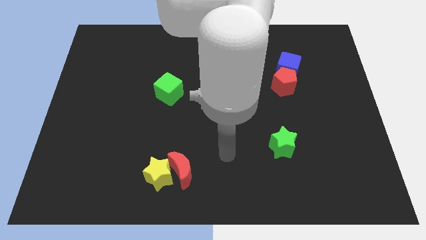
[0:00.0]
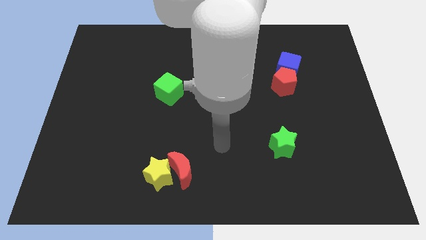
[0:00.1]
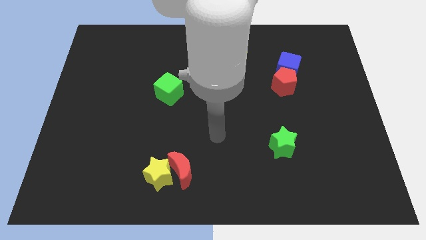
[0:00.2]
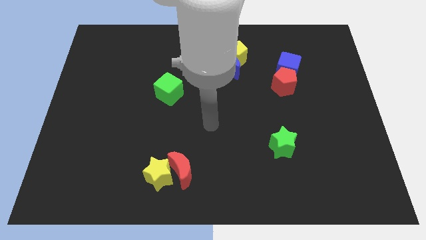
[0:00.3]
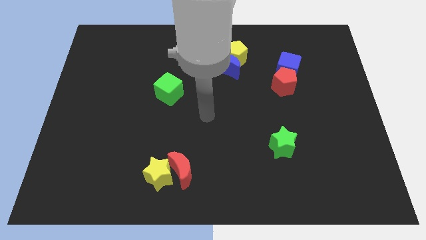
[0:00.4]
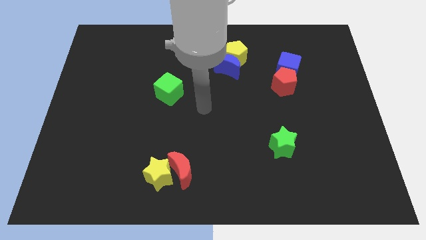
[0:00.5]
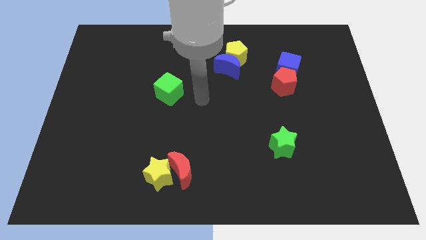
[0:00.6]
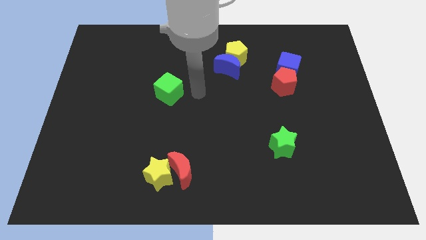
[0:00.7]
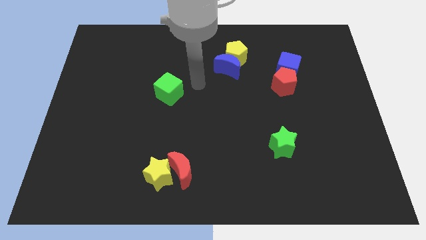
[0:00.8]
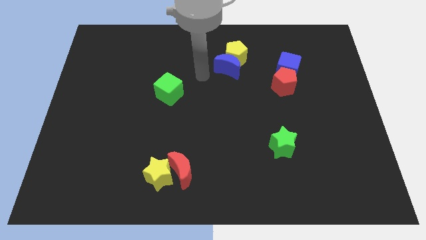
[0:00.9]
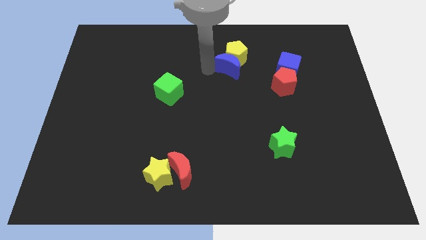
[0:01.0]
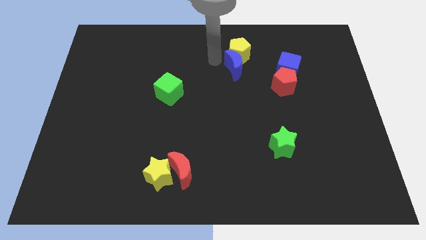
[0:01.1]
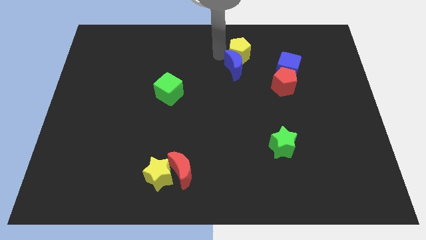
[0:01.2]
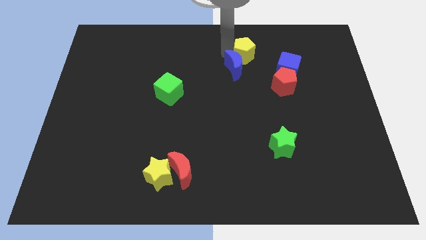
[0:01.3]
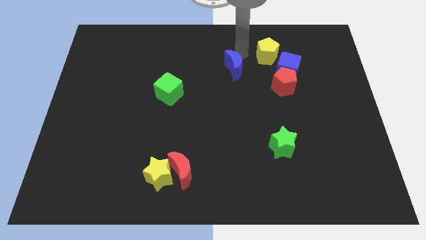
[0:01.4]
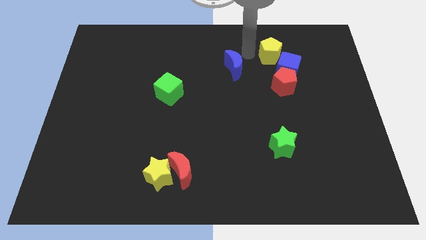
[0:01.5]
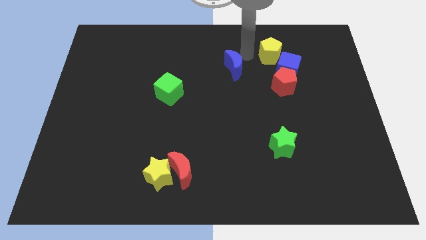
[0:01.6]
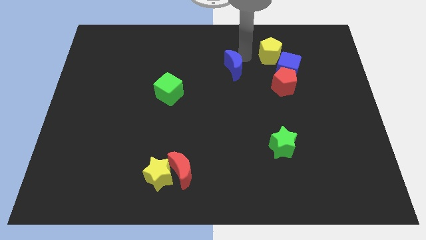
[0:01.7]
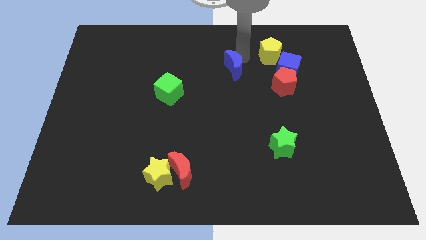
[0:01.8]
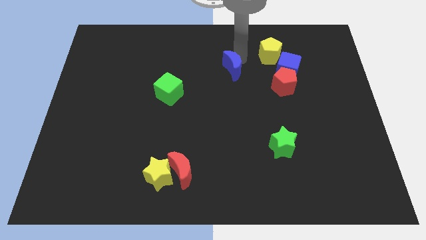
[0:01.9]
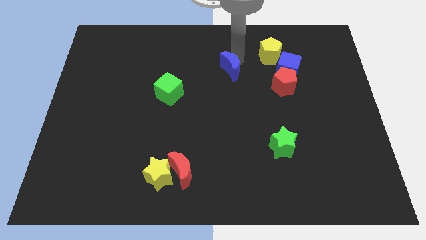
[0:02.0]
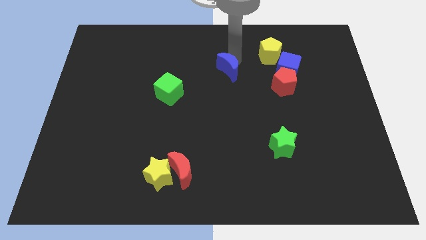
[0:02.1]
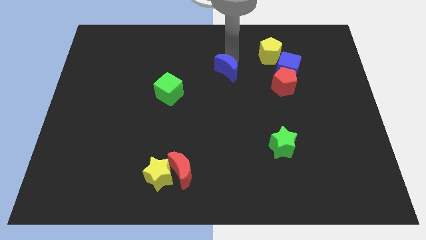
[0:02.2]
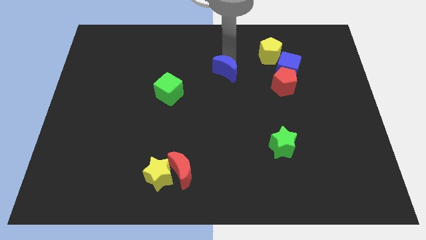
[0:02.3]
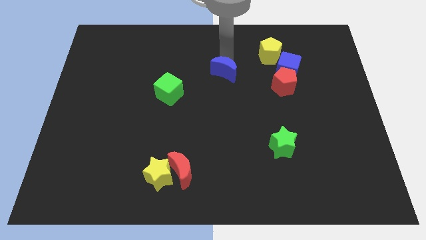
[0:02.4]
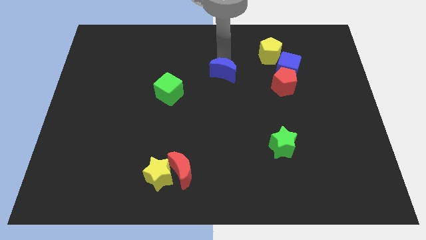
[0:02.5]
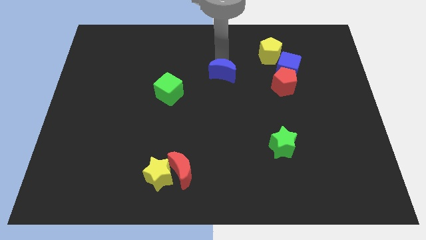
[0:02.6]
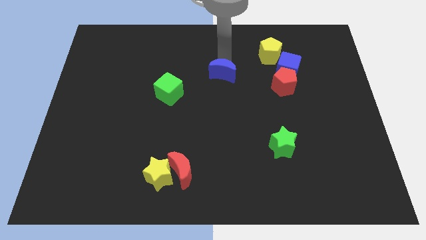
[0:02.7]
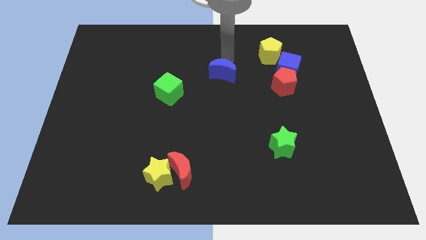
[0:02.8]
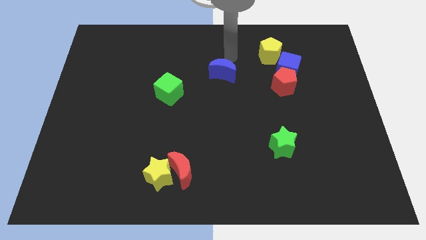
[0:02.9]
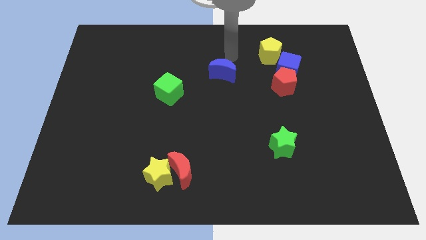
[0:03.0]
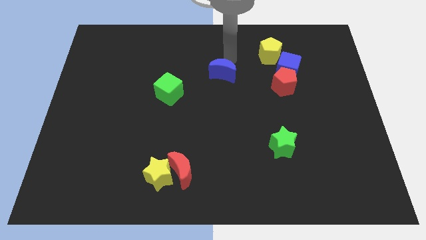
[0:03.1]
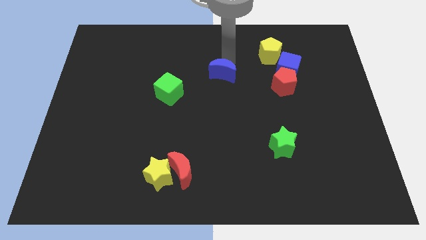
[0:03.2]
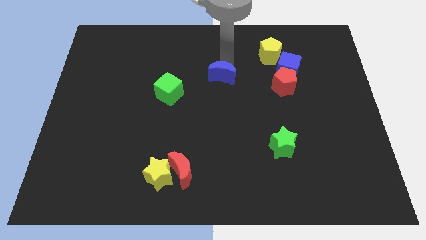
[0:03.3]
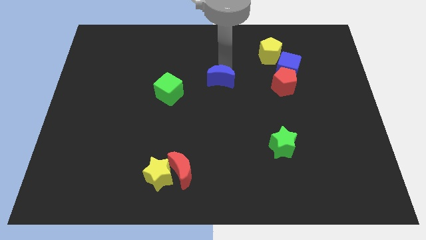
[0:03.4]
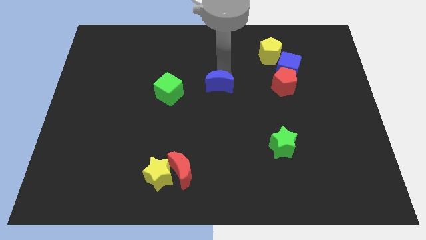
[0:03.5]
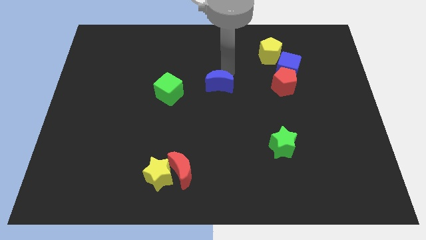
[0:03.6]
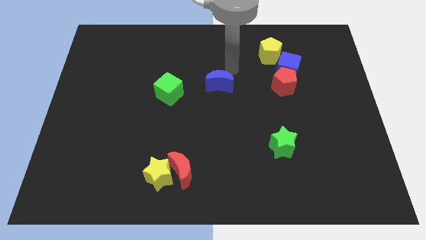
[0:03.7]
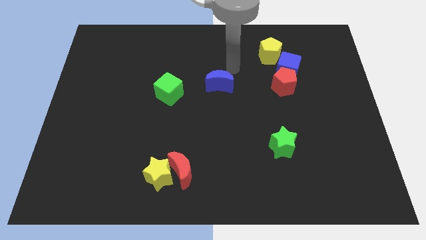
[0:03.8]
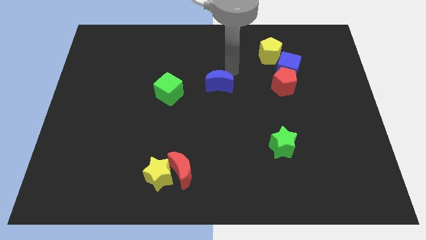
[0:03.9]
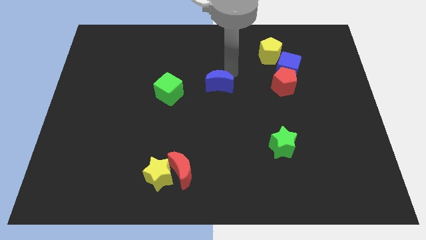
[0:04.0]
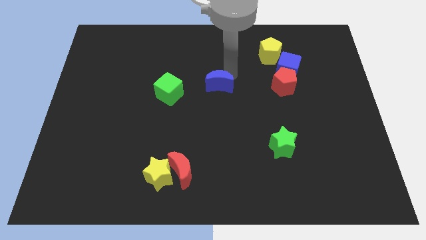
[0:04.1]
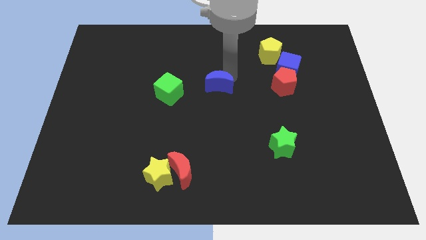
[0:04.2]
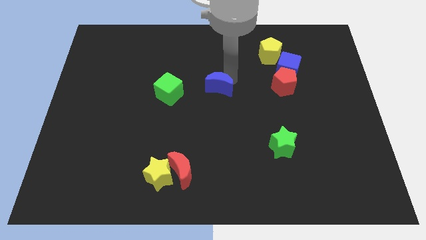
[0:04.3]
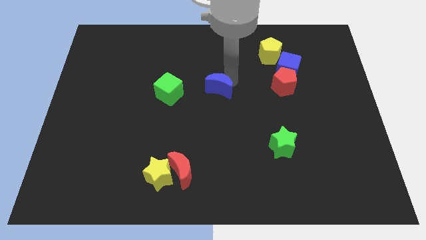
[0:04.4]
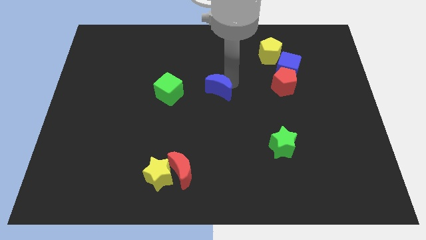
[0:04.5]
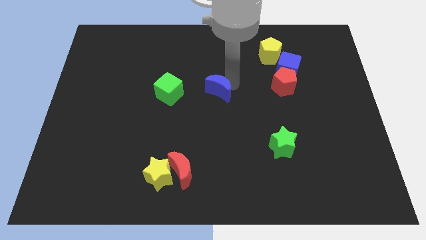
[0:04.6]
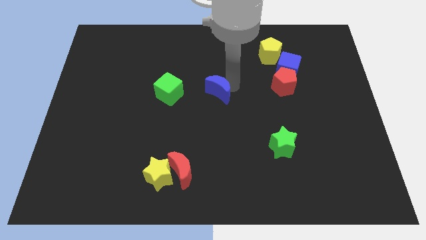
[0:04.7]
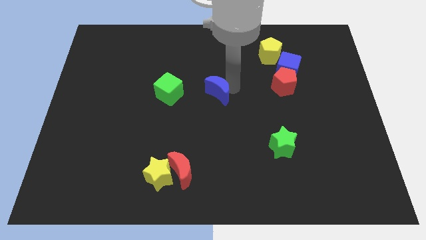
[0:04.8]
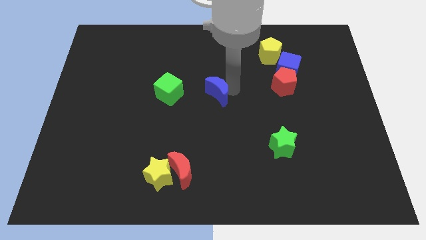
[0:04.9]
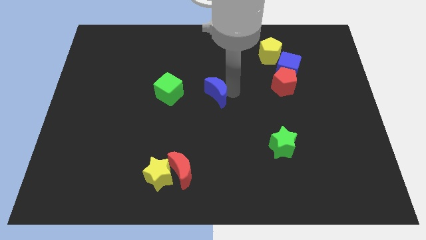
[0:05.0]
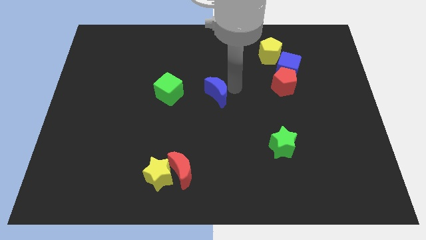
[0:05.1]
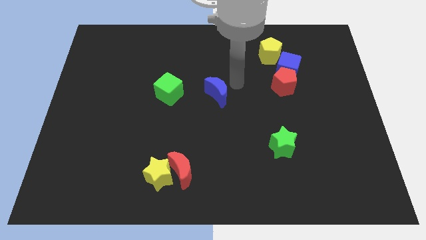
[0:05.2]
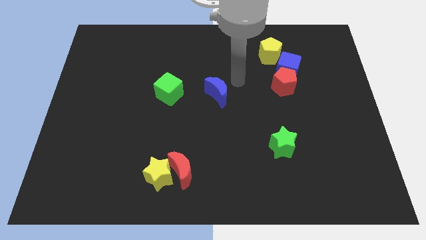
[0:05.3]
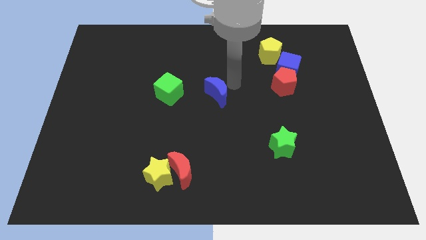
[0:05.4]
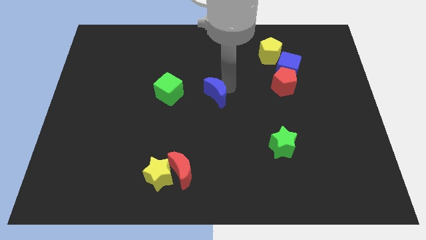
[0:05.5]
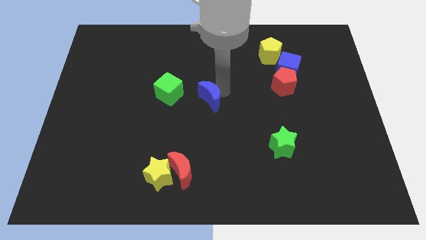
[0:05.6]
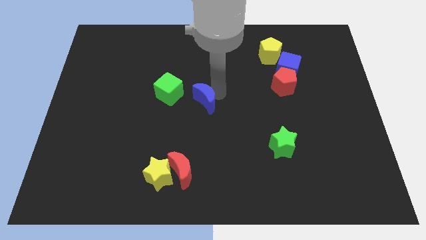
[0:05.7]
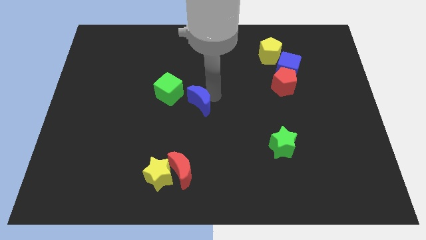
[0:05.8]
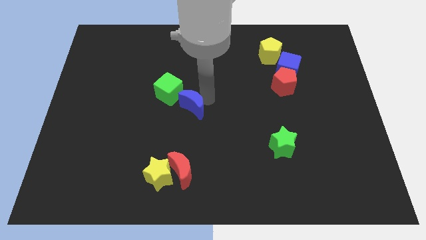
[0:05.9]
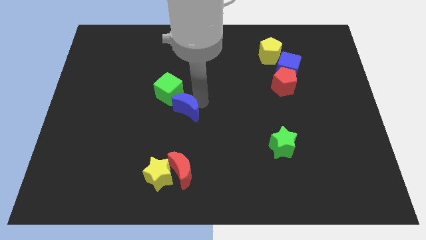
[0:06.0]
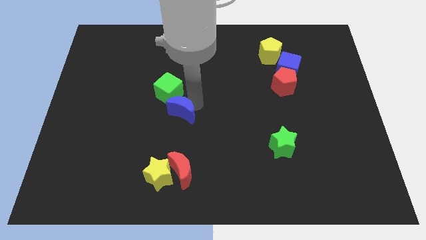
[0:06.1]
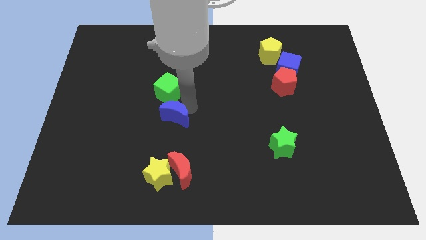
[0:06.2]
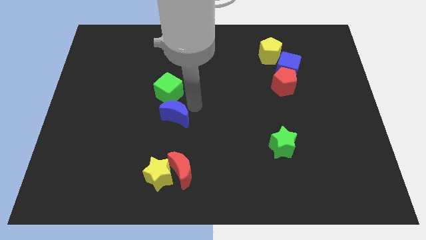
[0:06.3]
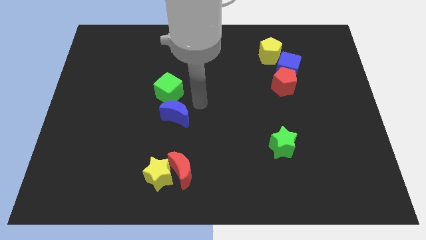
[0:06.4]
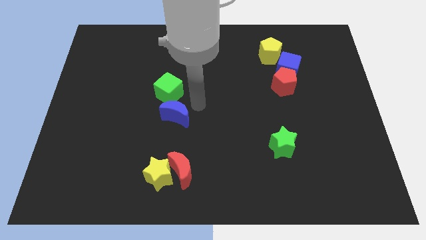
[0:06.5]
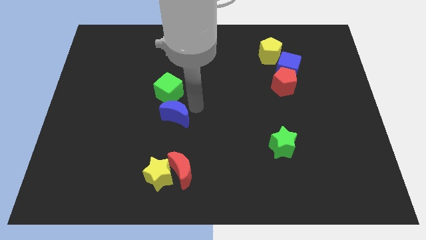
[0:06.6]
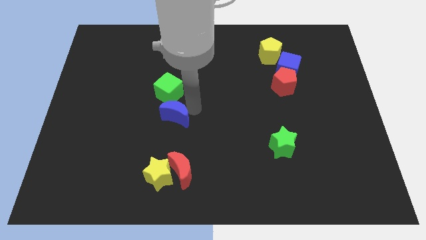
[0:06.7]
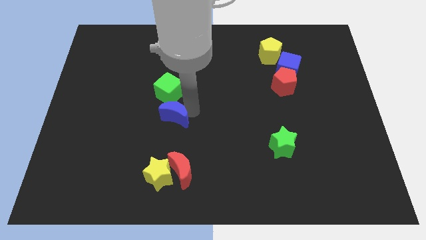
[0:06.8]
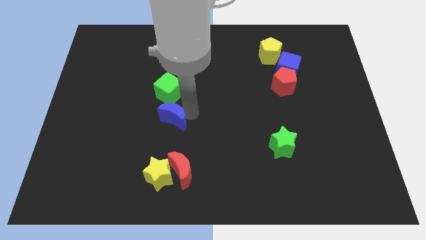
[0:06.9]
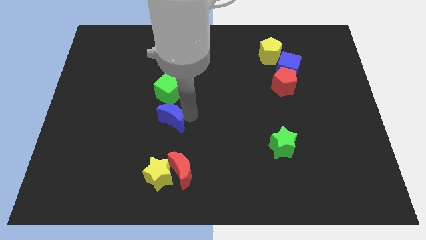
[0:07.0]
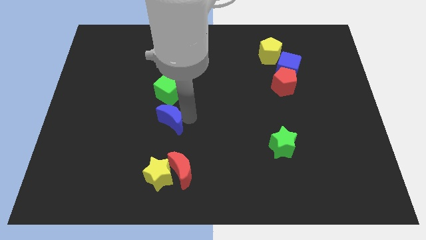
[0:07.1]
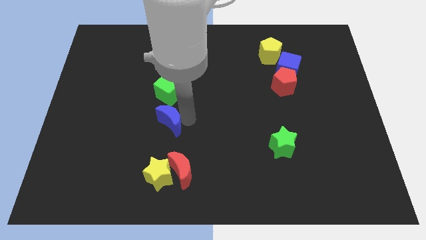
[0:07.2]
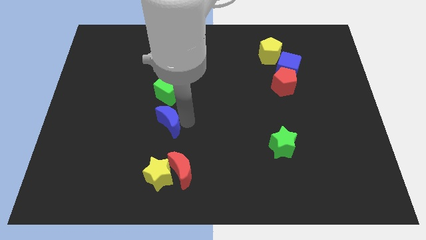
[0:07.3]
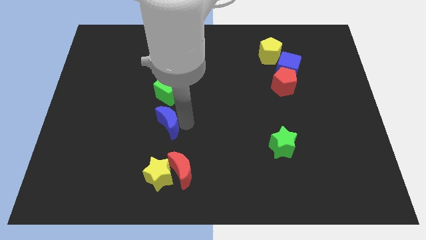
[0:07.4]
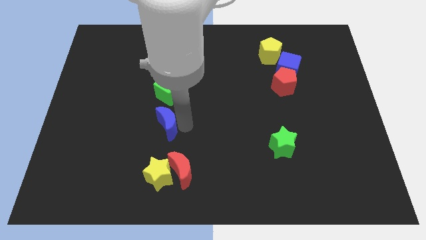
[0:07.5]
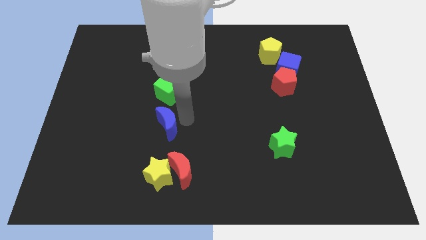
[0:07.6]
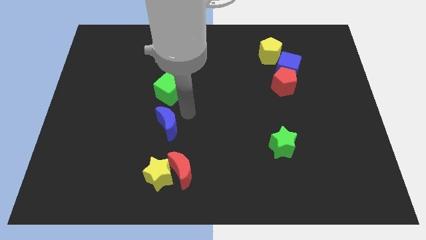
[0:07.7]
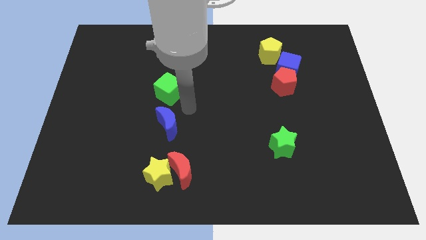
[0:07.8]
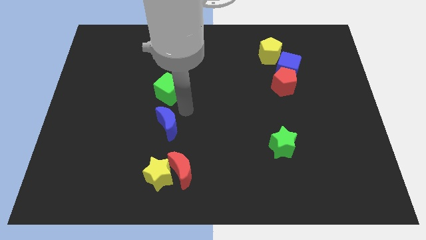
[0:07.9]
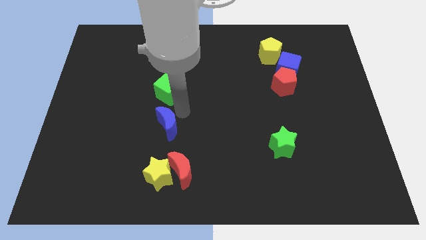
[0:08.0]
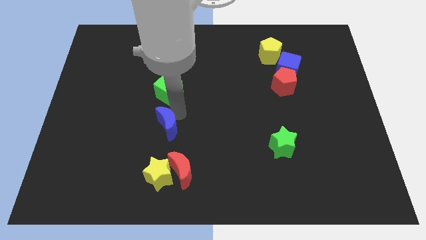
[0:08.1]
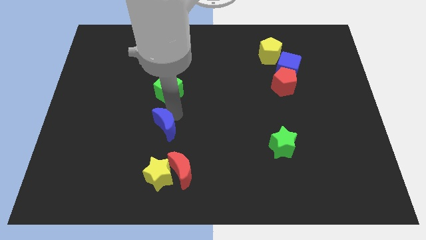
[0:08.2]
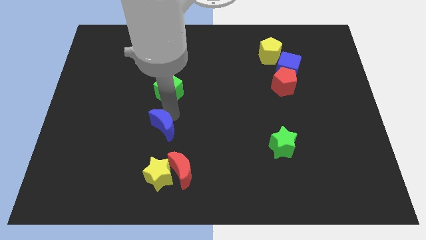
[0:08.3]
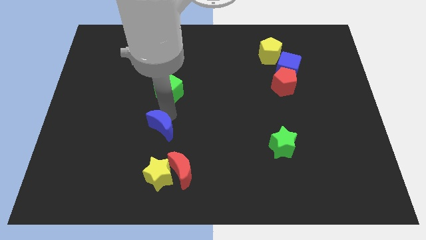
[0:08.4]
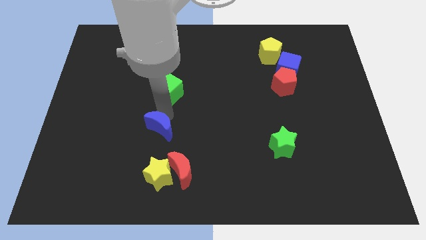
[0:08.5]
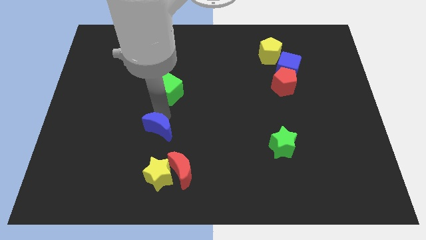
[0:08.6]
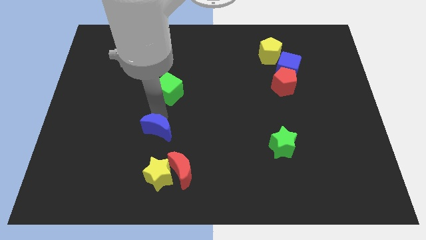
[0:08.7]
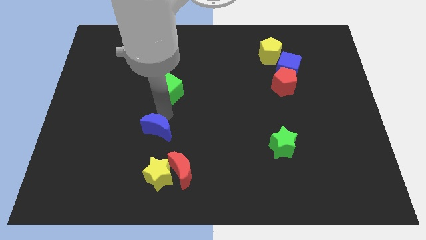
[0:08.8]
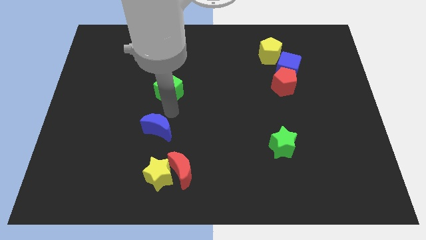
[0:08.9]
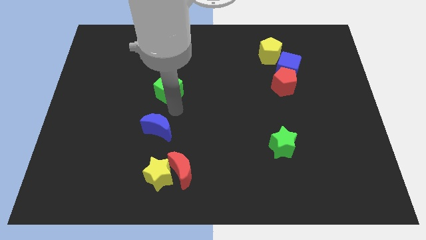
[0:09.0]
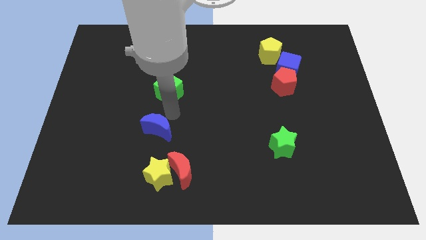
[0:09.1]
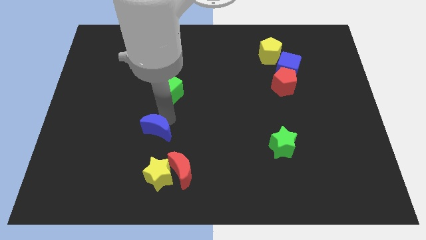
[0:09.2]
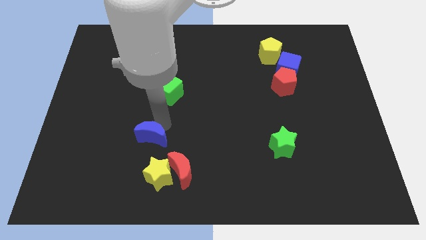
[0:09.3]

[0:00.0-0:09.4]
move the blue moon diagonally up and to the left of the yellow star
